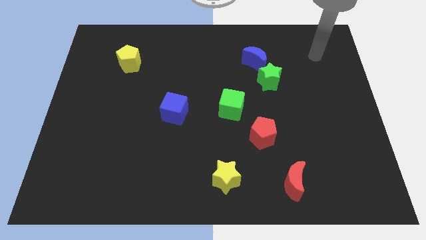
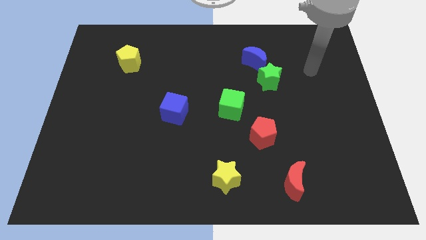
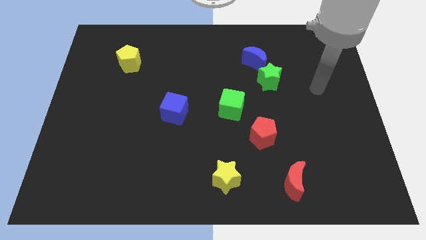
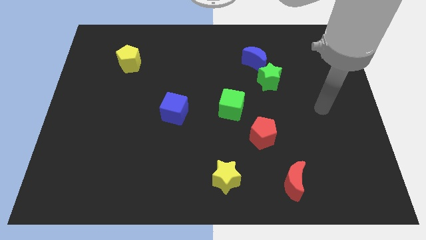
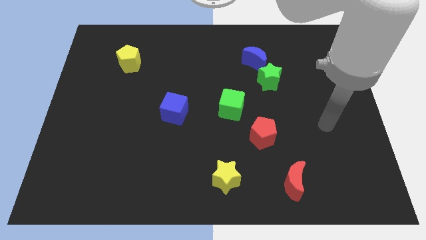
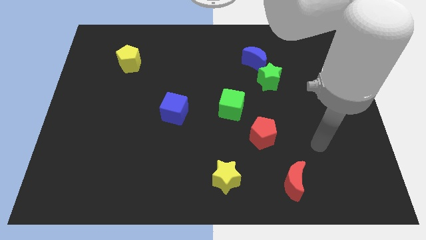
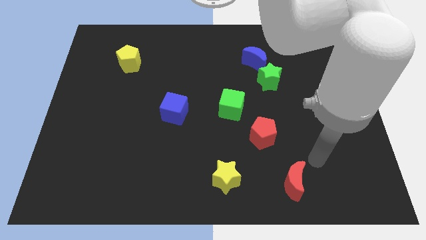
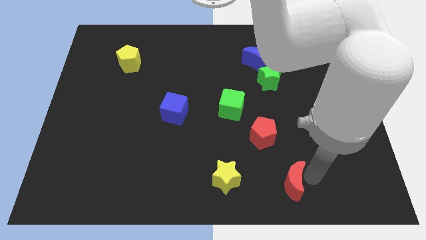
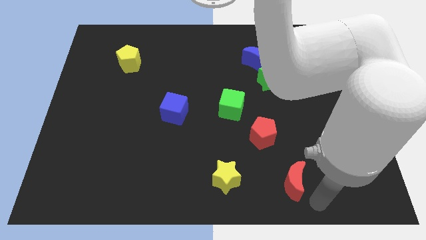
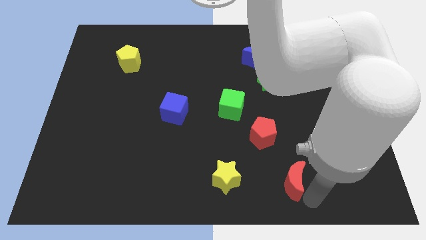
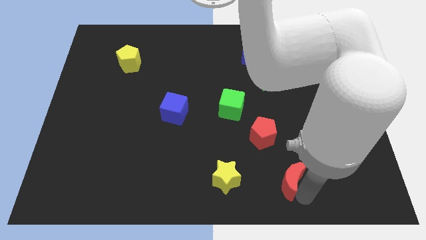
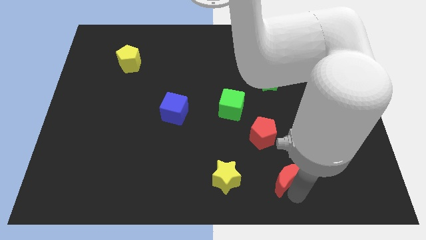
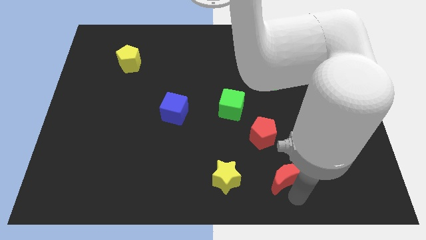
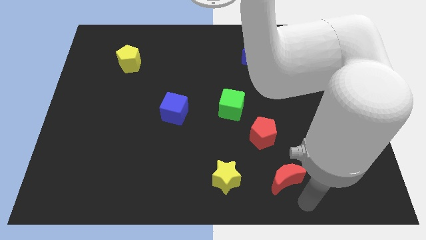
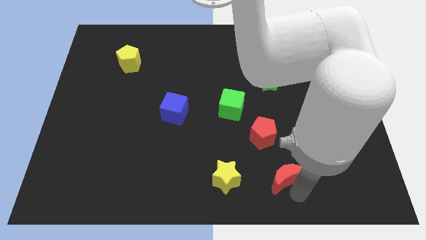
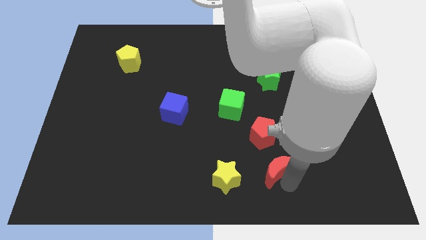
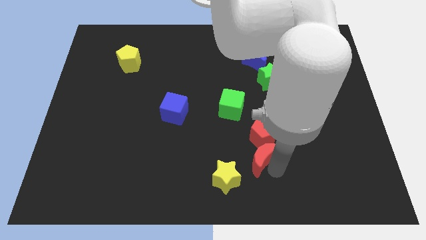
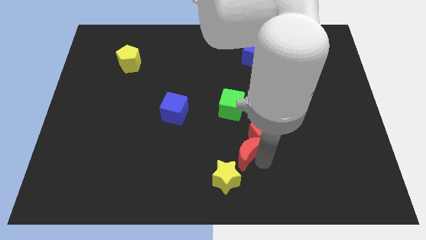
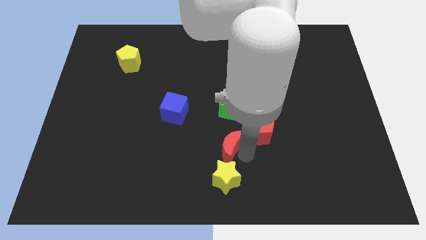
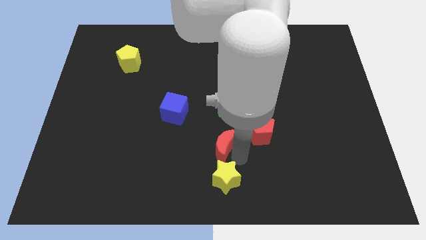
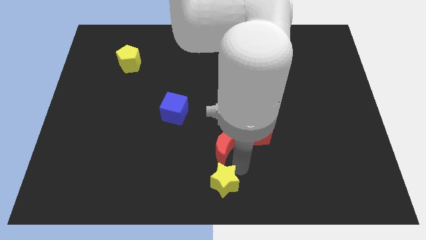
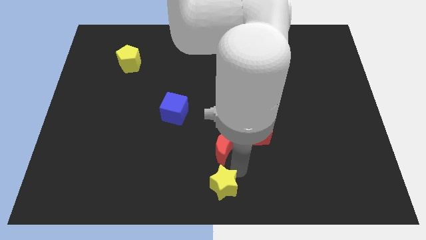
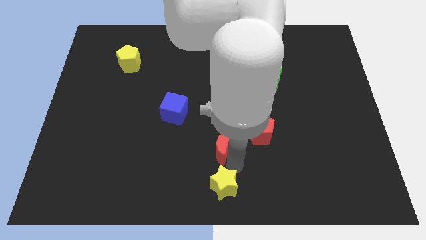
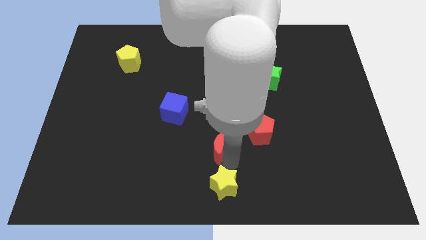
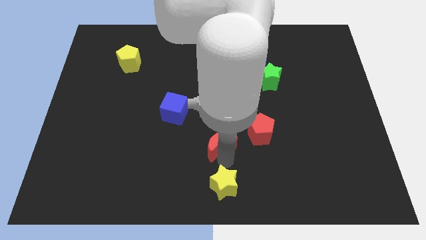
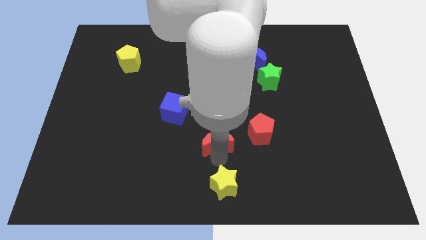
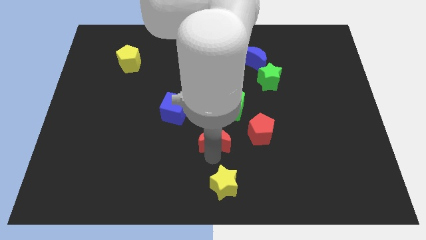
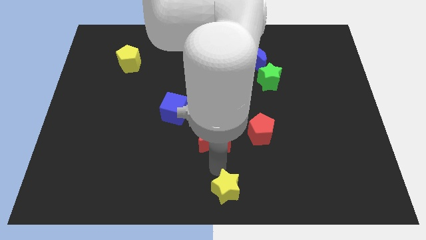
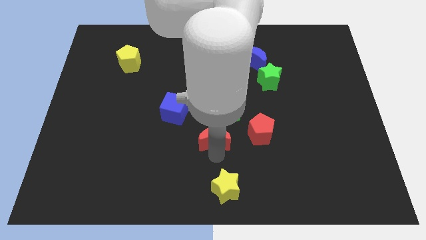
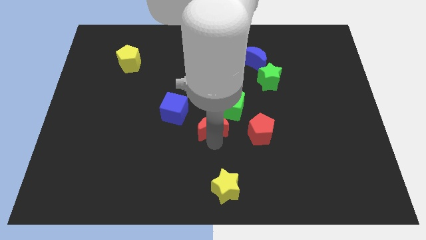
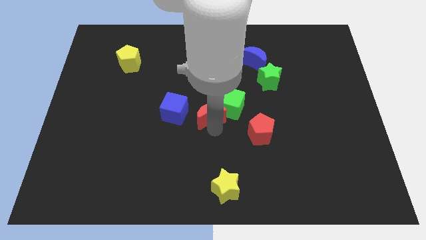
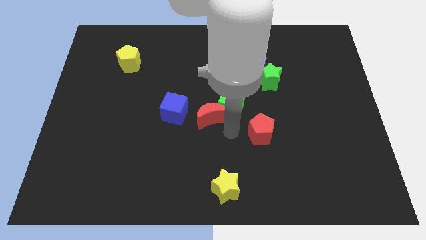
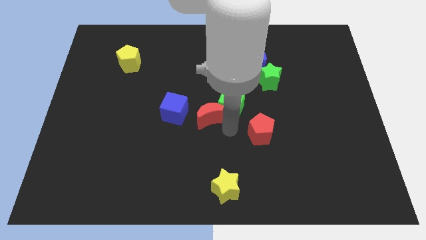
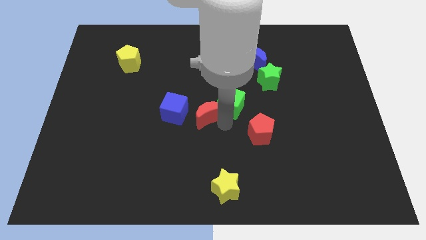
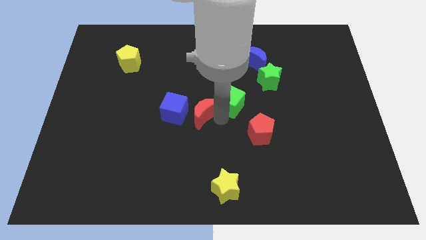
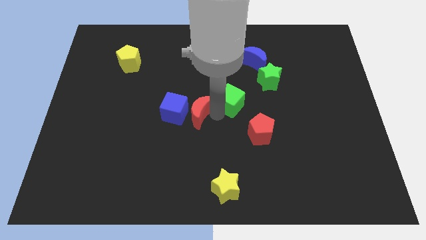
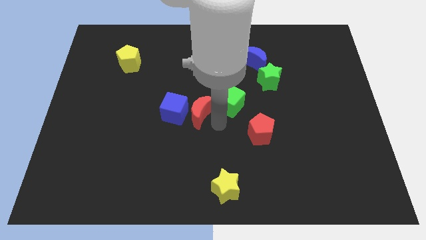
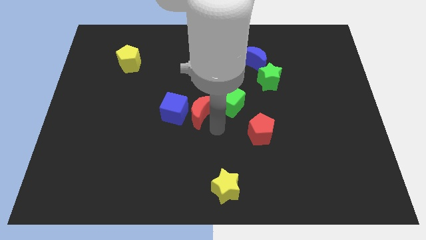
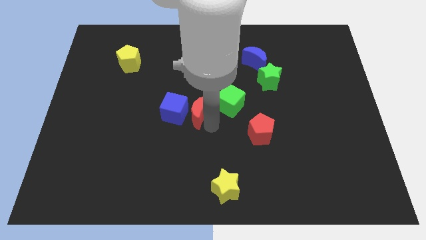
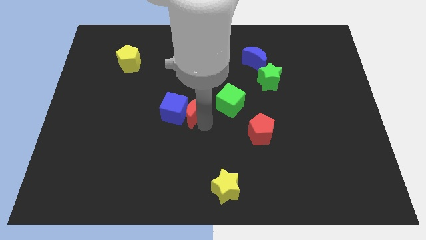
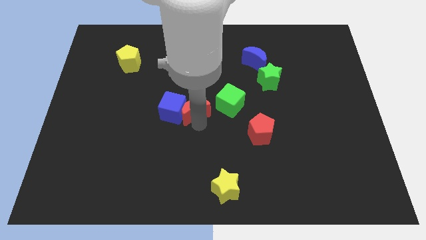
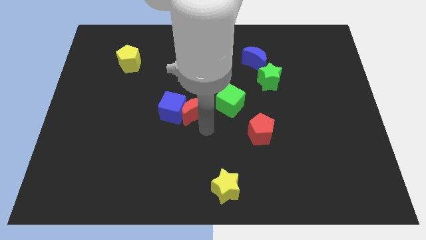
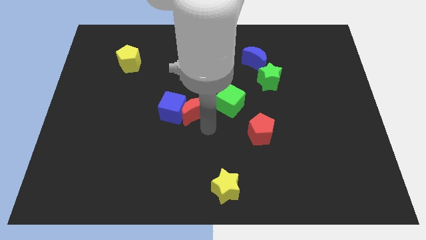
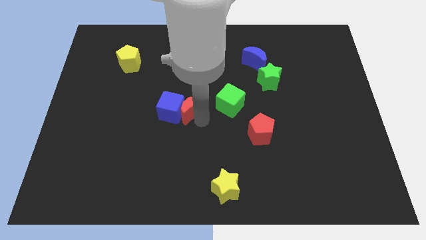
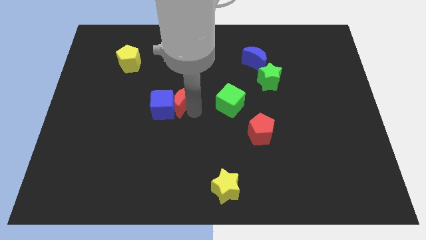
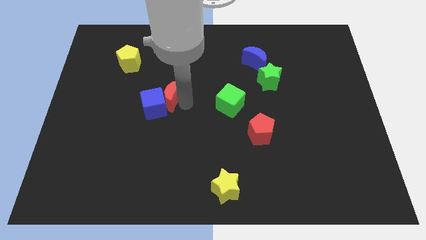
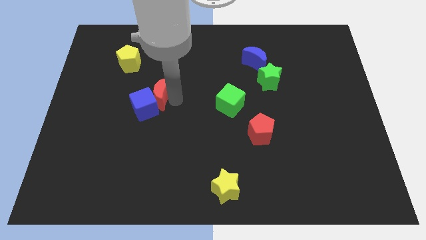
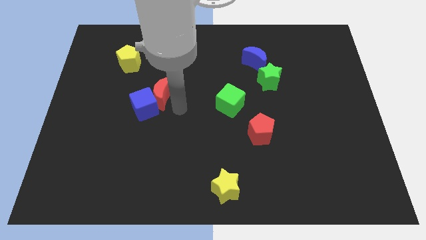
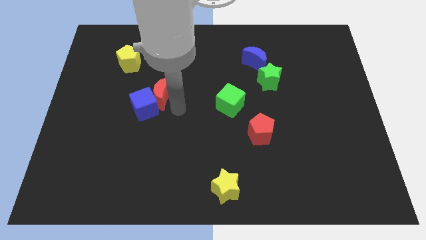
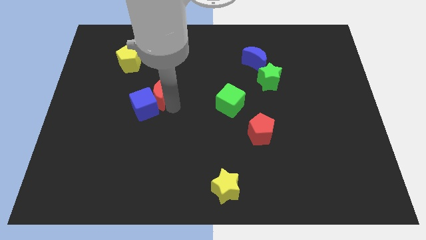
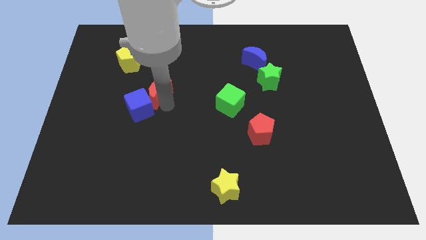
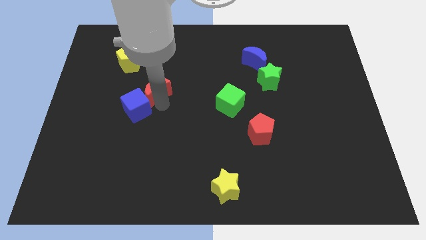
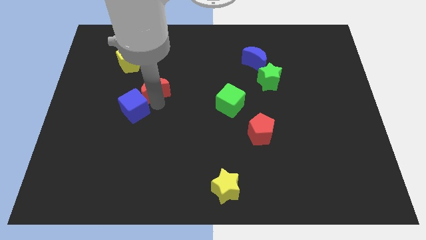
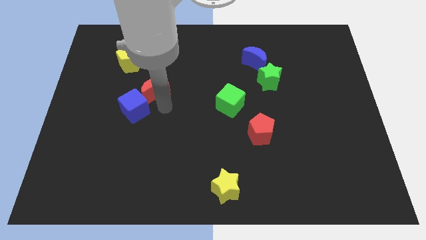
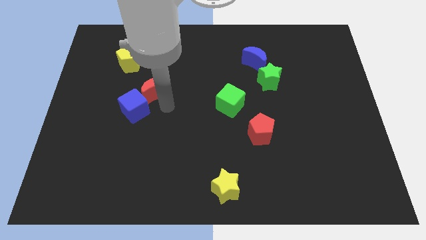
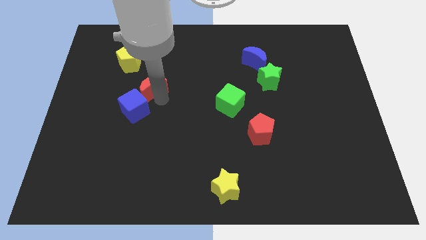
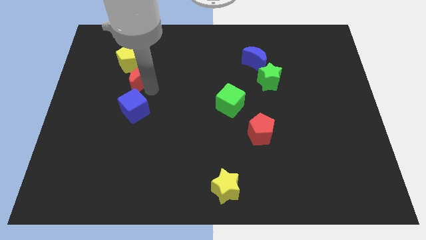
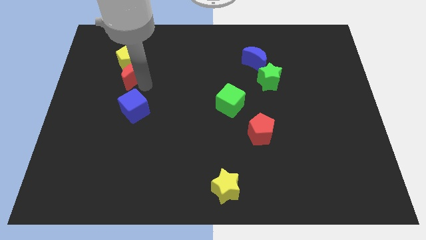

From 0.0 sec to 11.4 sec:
slide the red moon next to the yellow pentagon

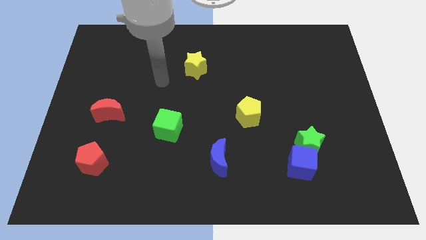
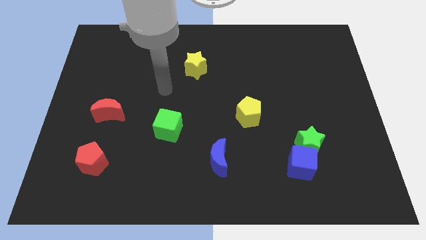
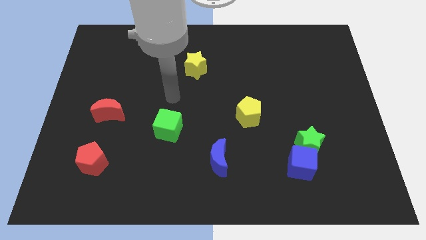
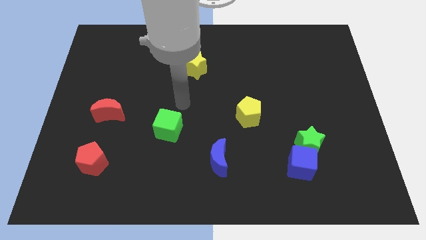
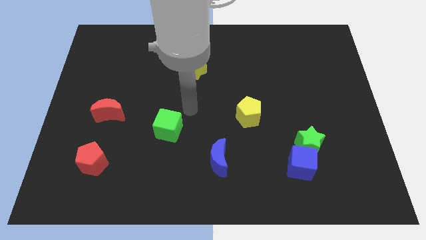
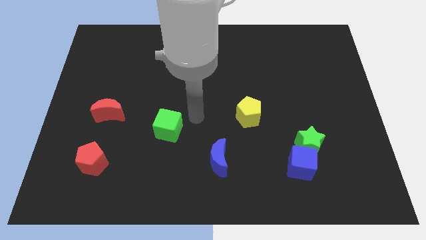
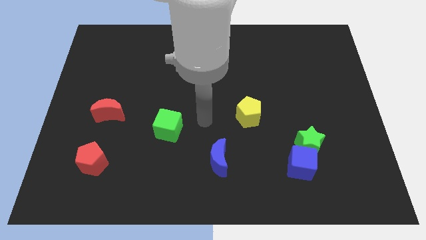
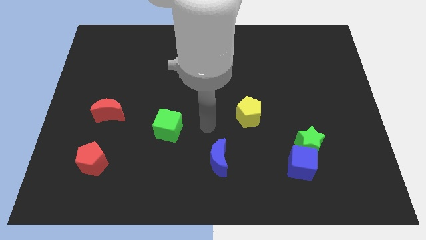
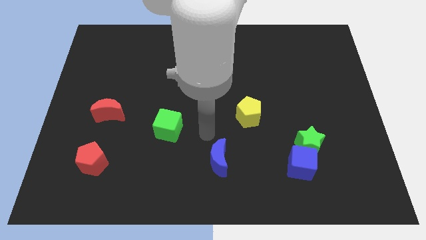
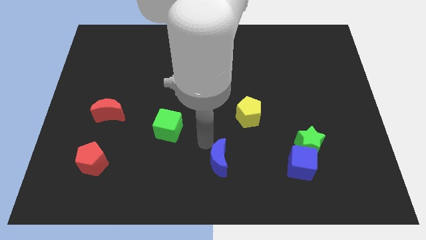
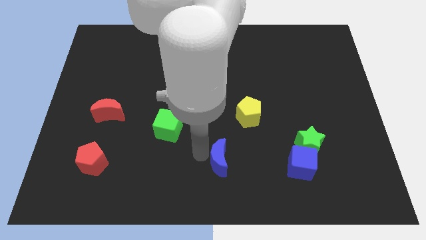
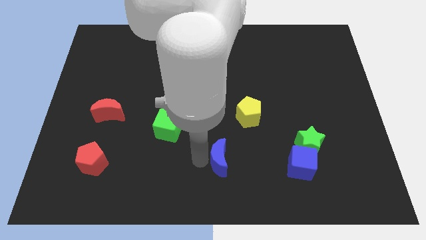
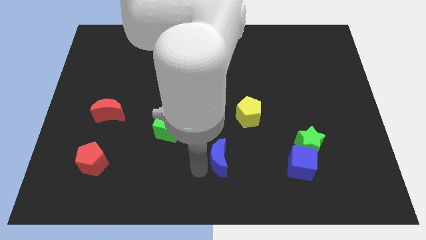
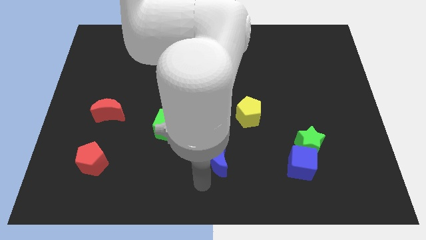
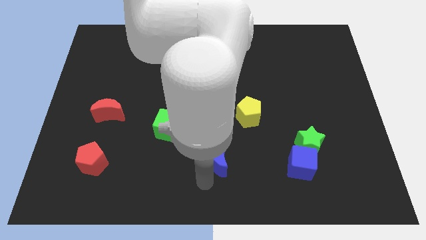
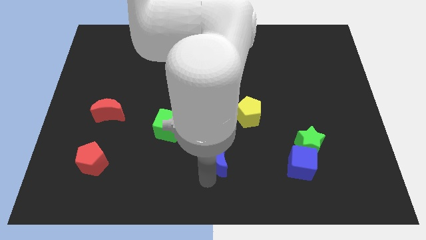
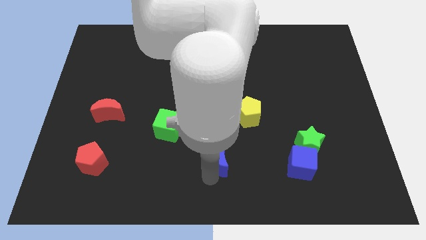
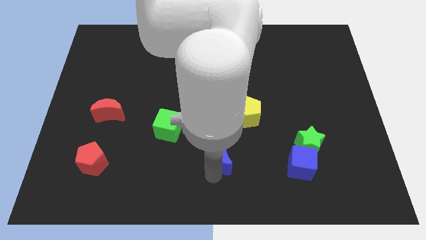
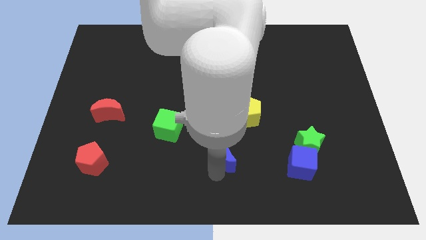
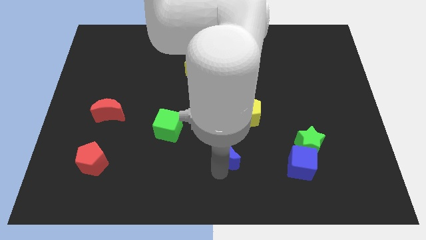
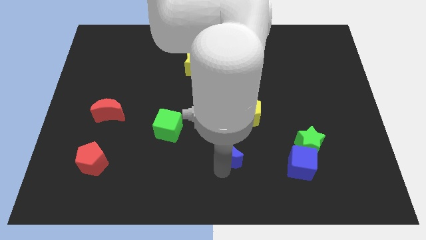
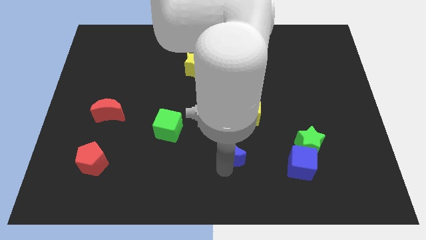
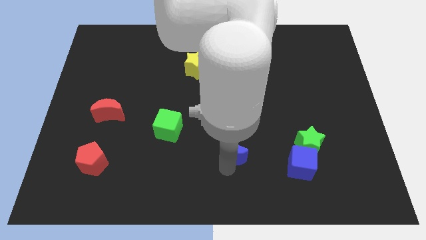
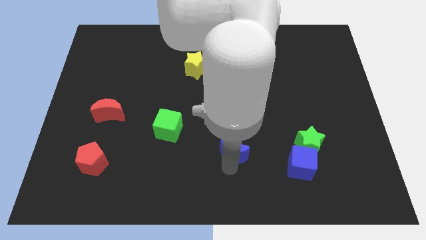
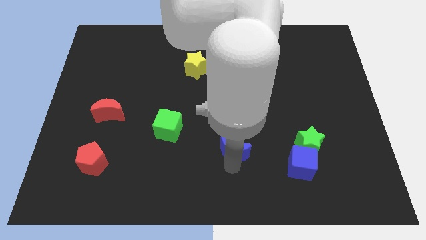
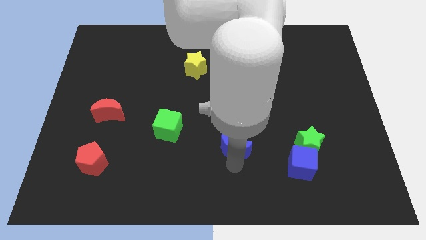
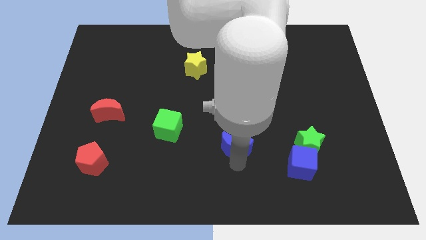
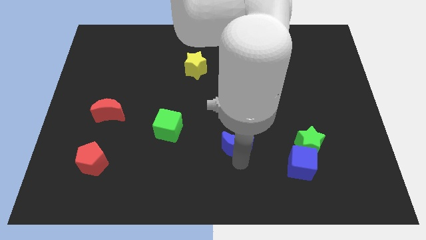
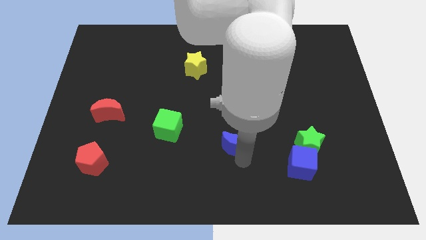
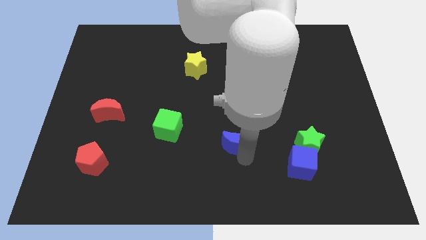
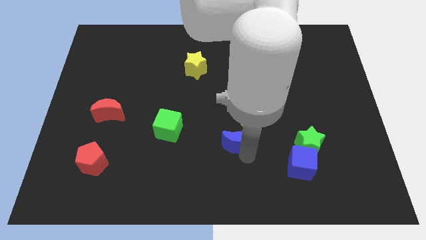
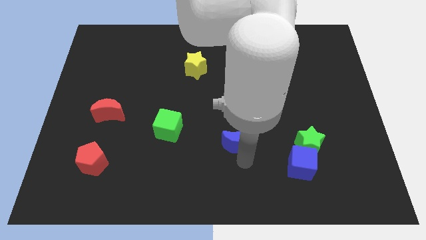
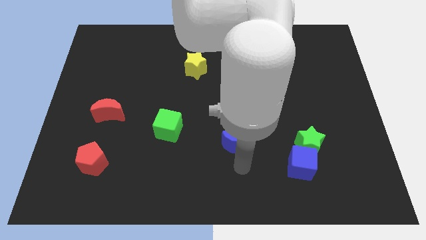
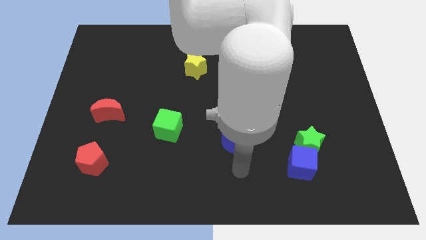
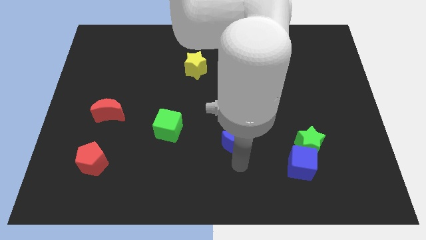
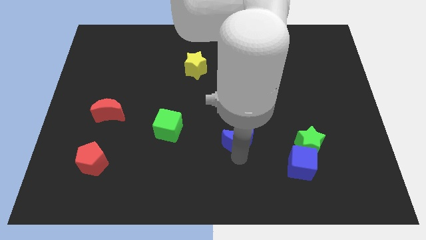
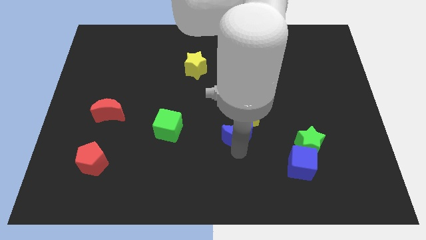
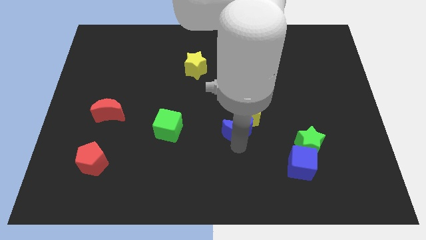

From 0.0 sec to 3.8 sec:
move the blue moon next to the yellow pentagon
